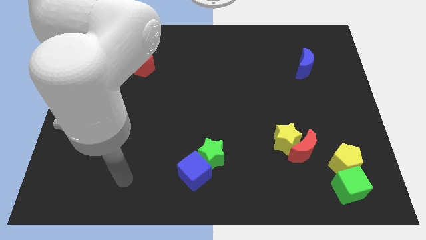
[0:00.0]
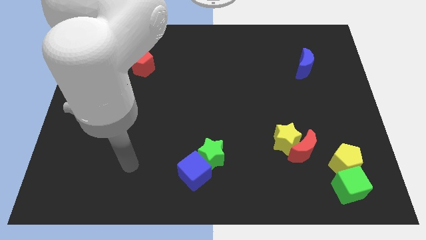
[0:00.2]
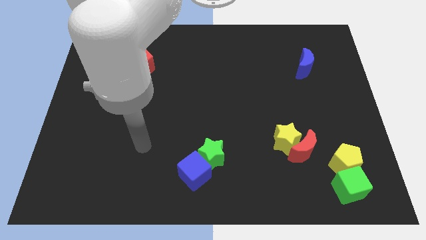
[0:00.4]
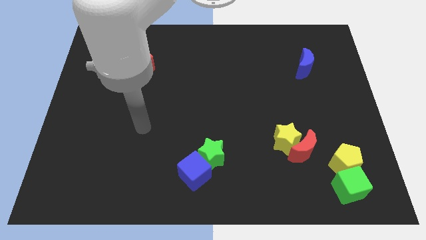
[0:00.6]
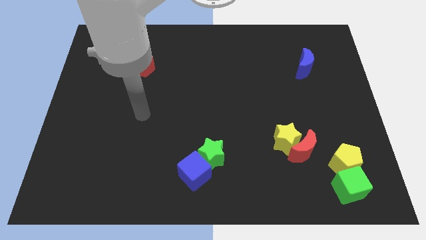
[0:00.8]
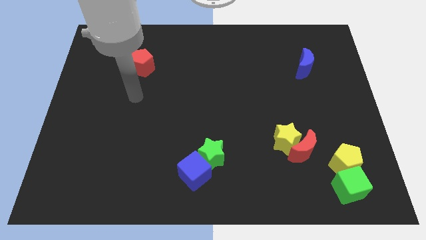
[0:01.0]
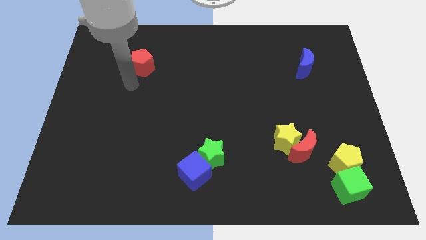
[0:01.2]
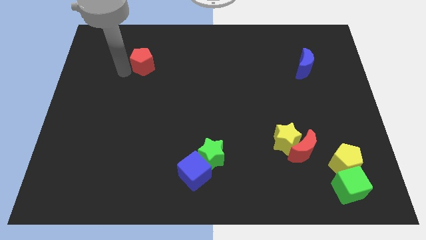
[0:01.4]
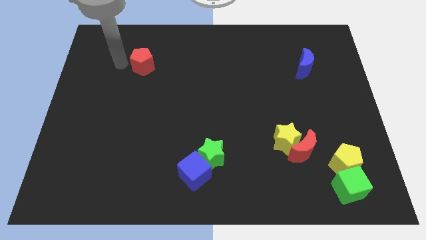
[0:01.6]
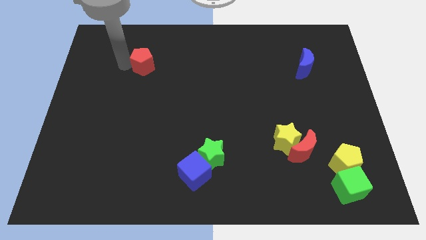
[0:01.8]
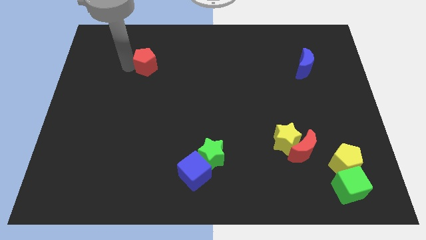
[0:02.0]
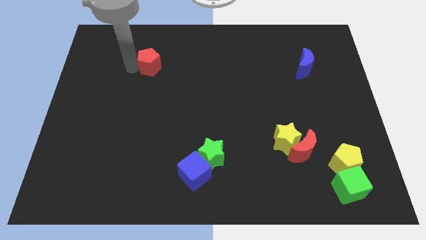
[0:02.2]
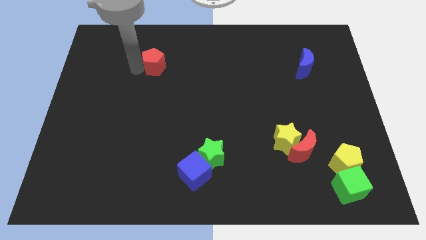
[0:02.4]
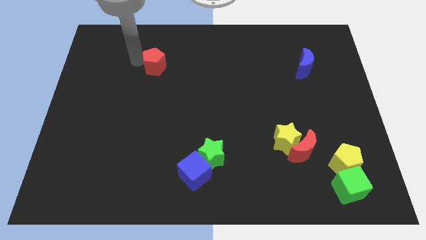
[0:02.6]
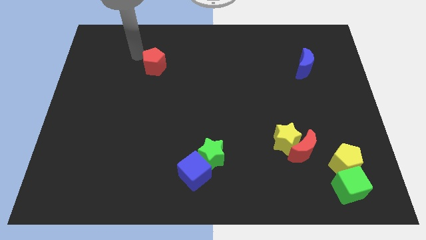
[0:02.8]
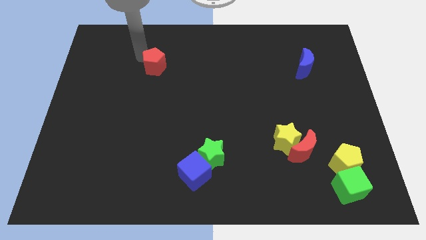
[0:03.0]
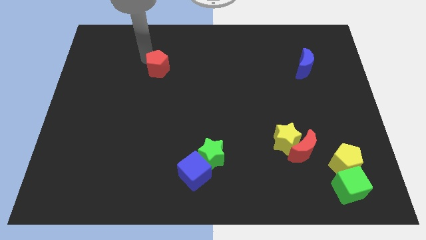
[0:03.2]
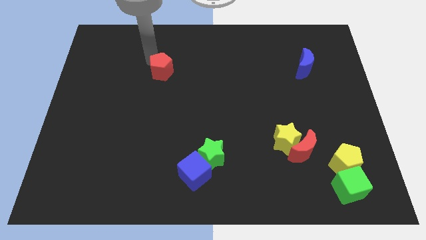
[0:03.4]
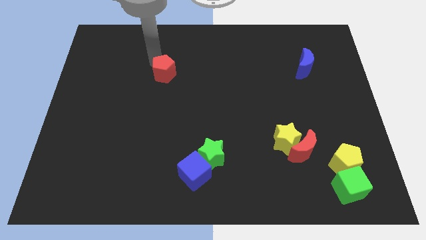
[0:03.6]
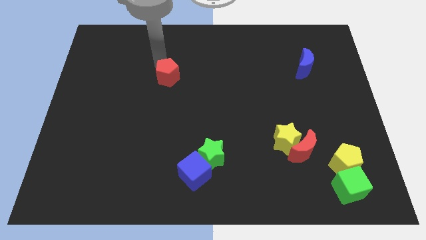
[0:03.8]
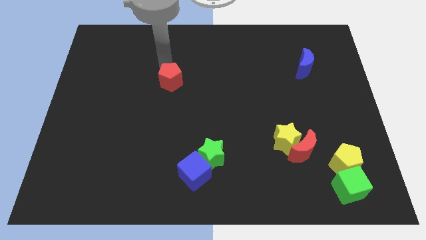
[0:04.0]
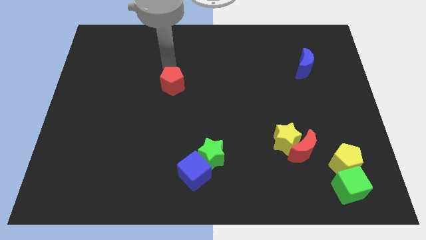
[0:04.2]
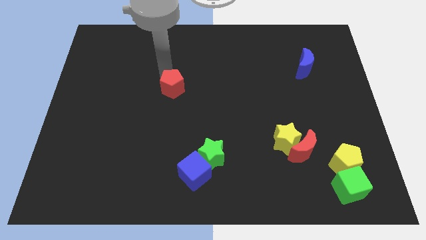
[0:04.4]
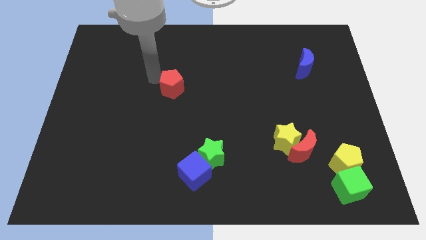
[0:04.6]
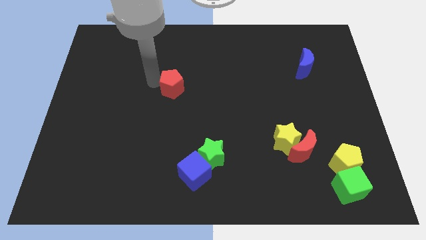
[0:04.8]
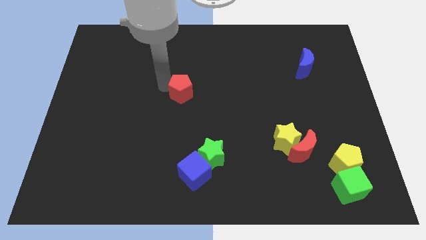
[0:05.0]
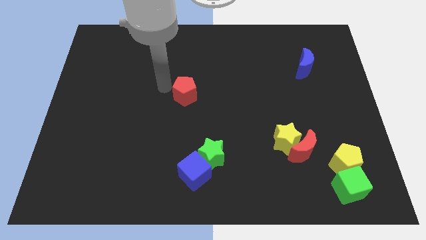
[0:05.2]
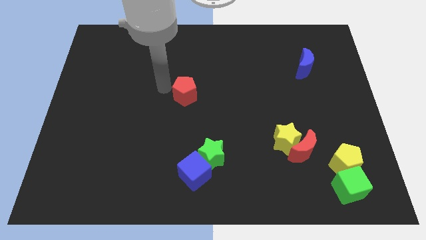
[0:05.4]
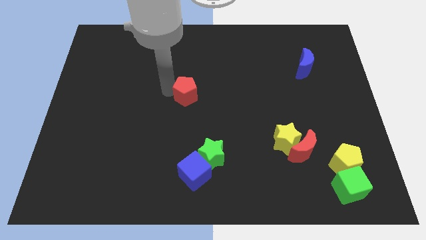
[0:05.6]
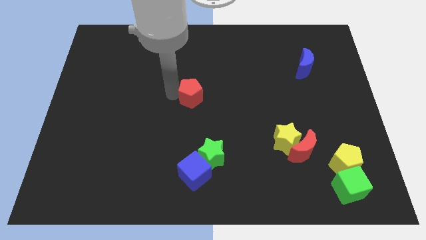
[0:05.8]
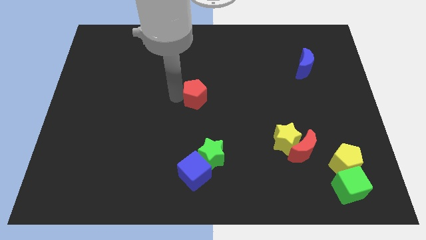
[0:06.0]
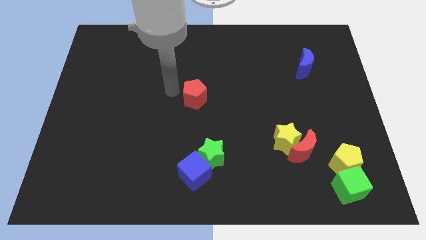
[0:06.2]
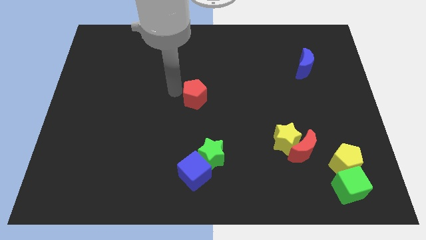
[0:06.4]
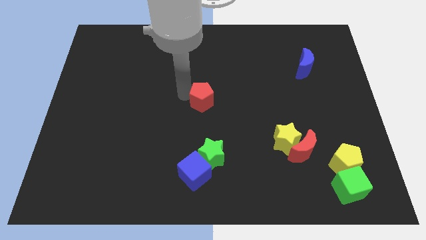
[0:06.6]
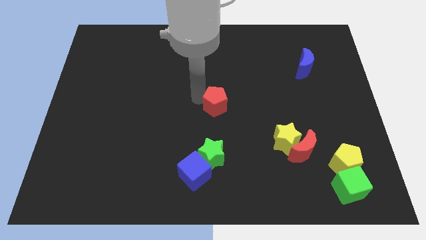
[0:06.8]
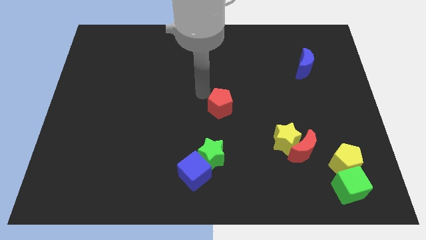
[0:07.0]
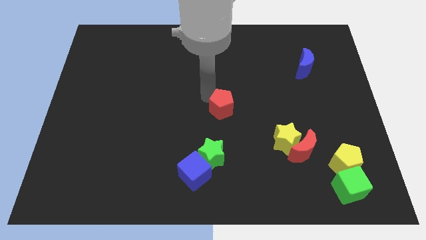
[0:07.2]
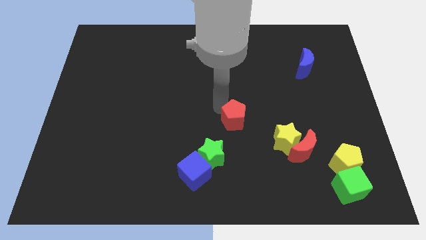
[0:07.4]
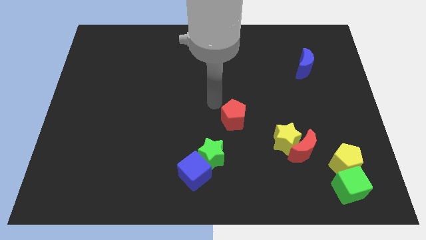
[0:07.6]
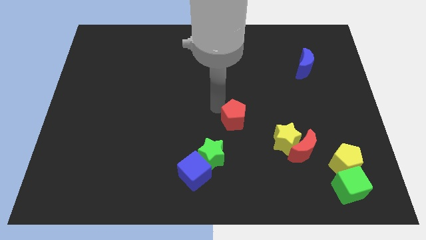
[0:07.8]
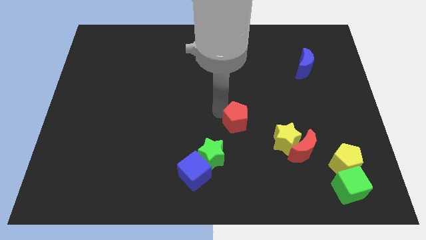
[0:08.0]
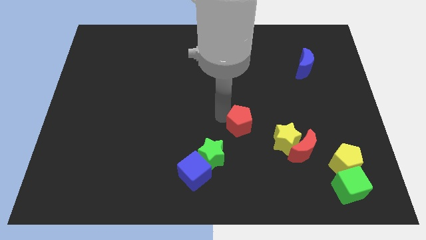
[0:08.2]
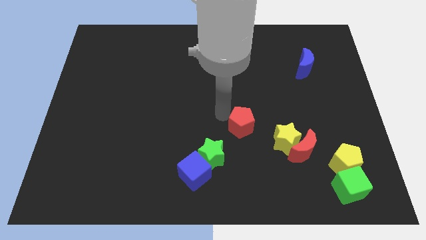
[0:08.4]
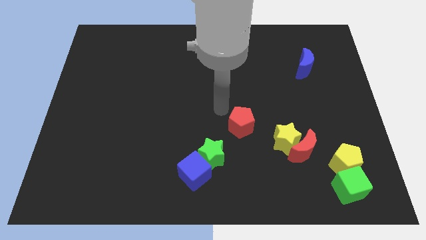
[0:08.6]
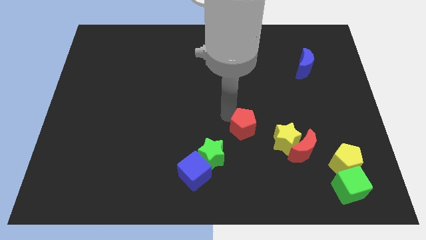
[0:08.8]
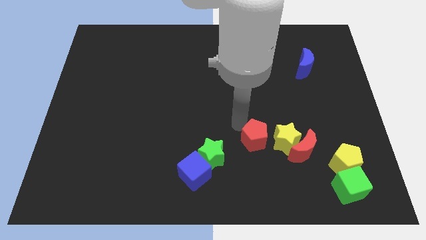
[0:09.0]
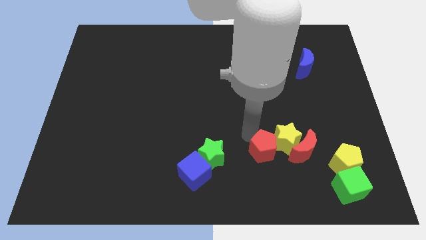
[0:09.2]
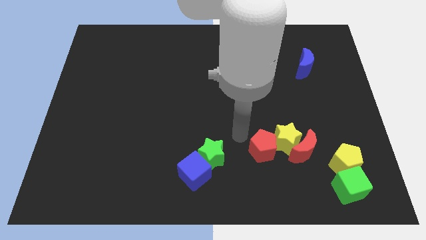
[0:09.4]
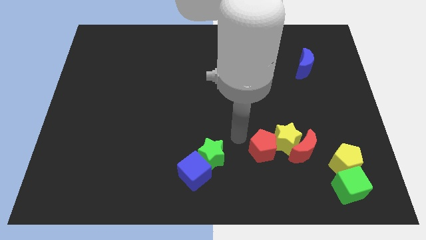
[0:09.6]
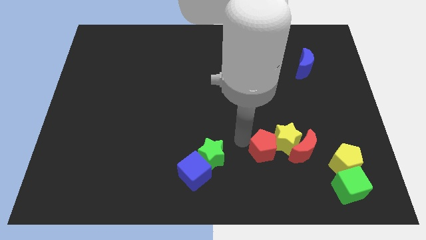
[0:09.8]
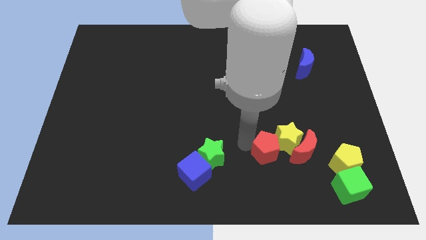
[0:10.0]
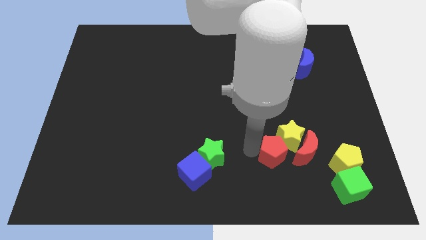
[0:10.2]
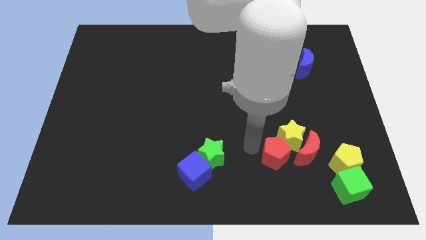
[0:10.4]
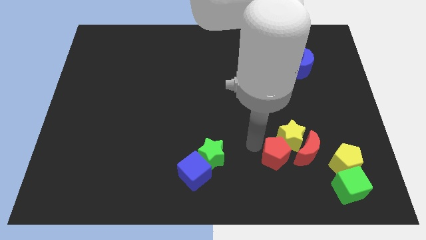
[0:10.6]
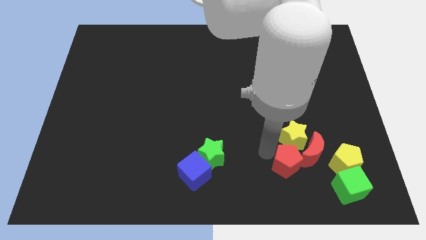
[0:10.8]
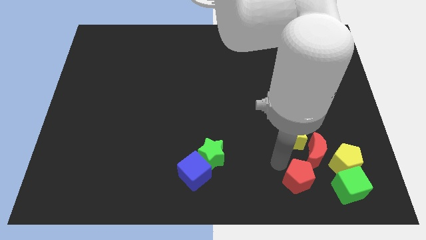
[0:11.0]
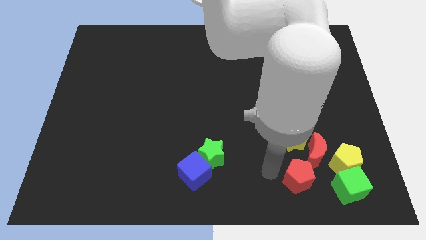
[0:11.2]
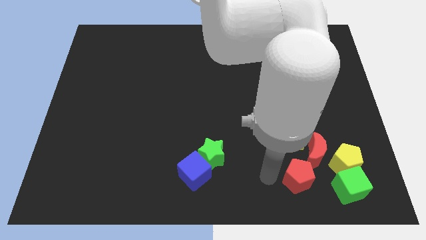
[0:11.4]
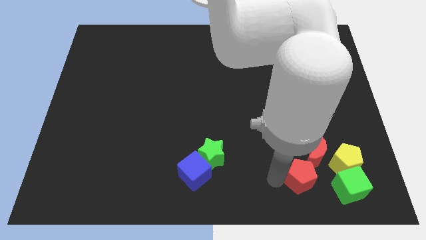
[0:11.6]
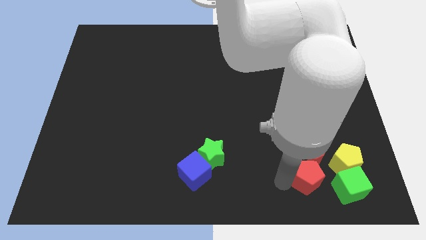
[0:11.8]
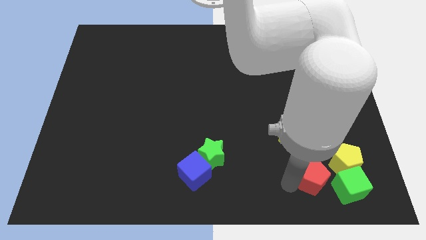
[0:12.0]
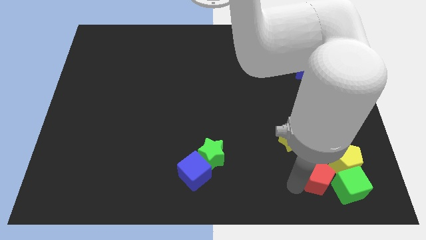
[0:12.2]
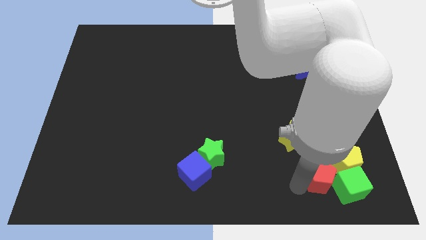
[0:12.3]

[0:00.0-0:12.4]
slide the red pentagon to the green cube

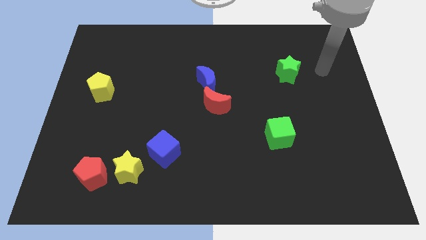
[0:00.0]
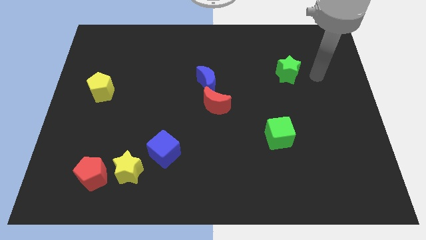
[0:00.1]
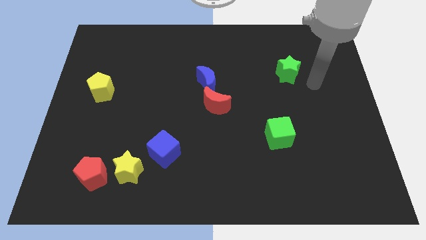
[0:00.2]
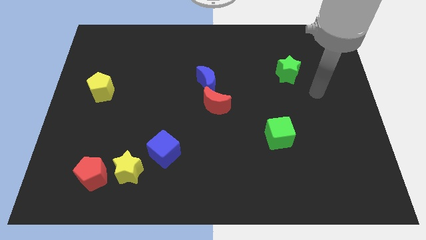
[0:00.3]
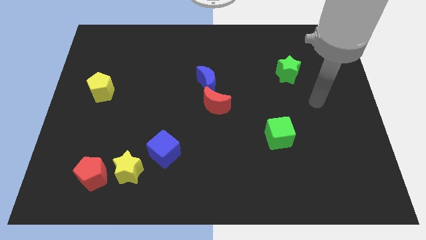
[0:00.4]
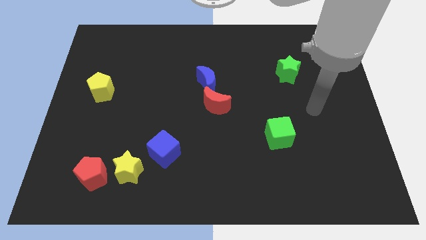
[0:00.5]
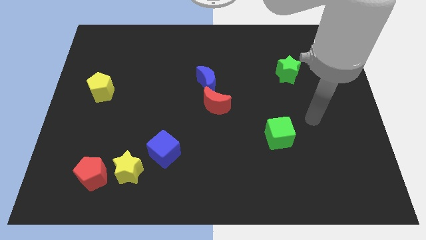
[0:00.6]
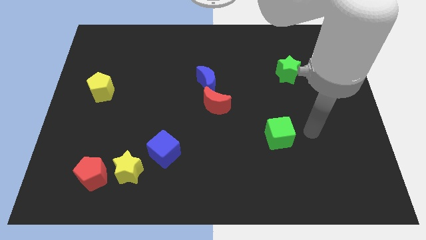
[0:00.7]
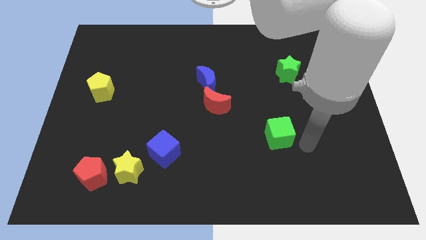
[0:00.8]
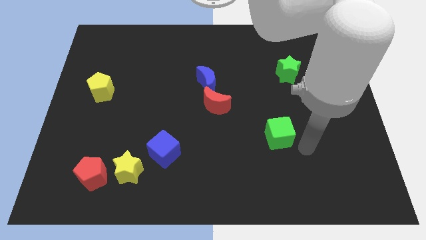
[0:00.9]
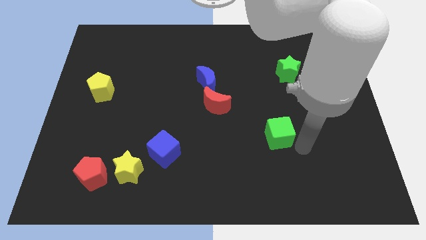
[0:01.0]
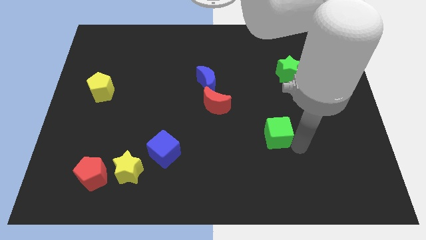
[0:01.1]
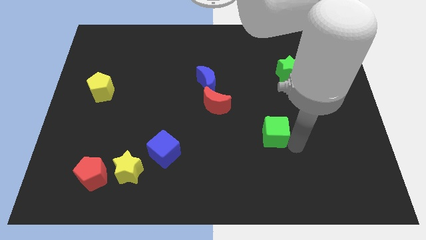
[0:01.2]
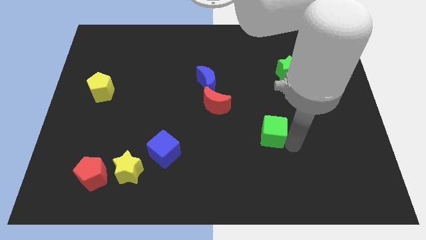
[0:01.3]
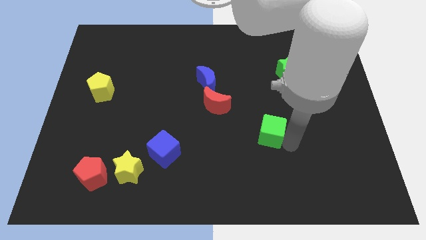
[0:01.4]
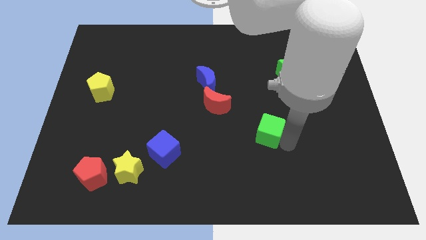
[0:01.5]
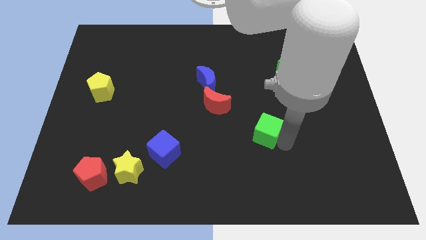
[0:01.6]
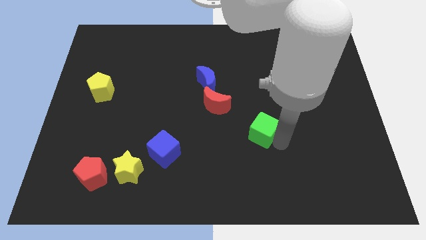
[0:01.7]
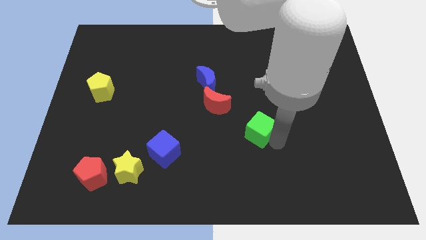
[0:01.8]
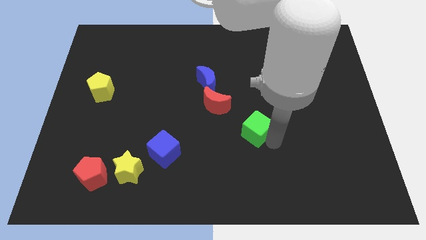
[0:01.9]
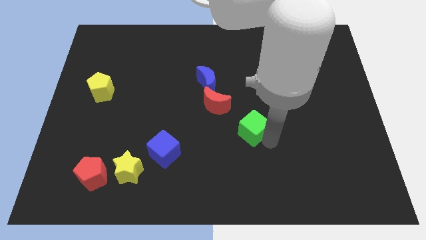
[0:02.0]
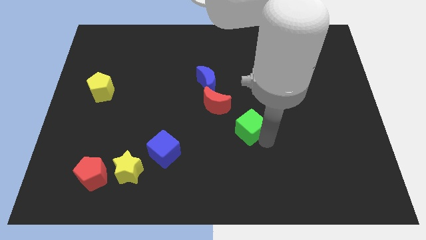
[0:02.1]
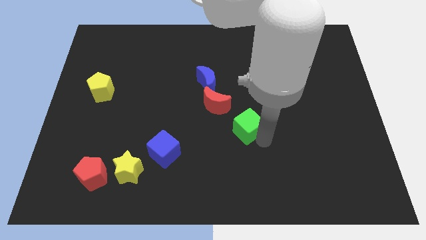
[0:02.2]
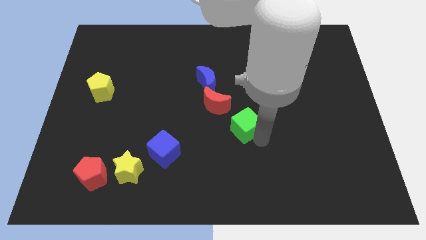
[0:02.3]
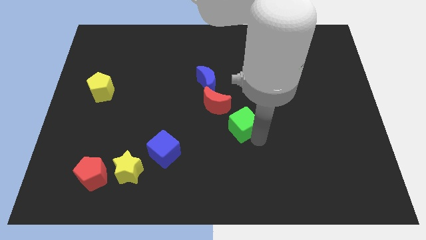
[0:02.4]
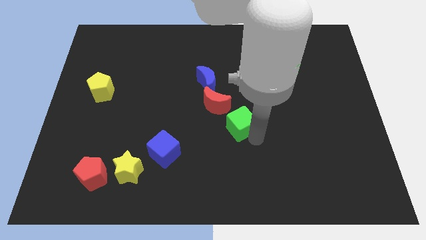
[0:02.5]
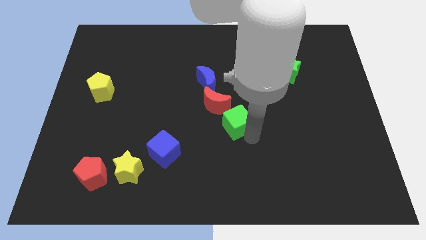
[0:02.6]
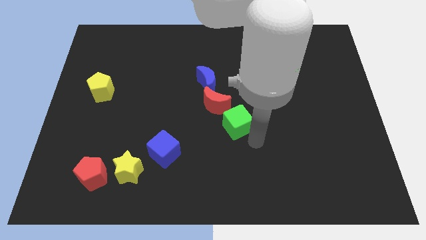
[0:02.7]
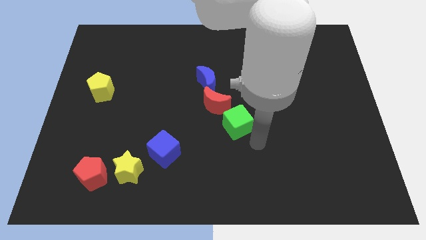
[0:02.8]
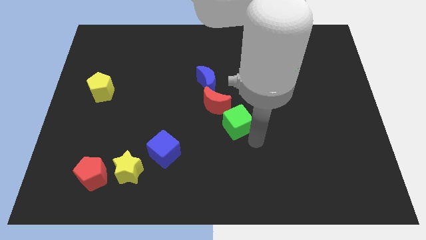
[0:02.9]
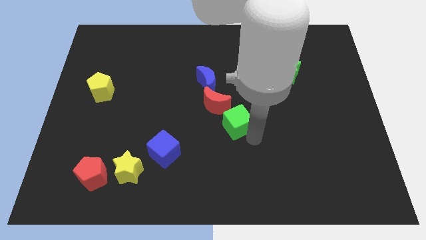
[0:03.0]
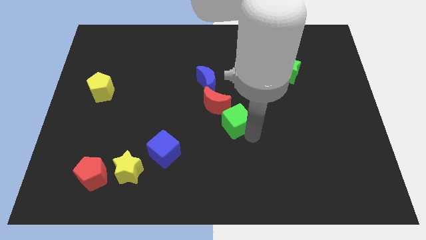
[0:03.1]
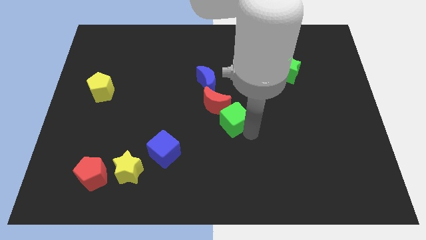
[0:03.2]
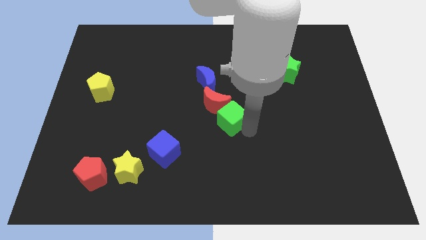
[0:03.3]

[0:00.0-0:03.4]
push the green cube towards the red moon
